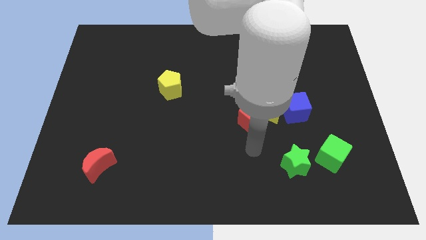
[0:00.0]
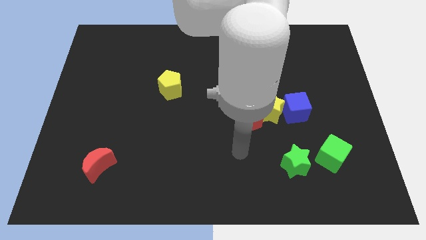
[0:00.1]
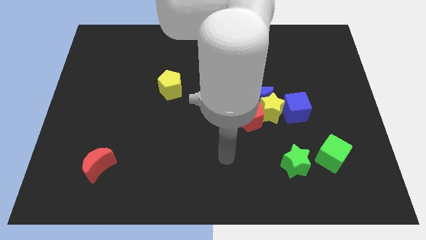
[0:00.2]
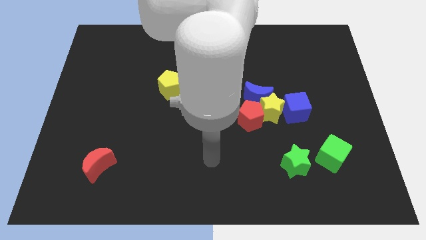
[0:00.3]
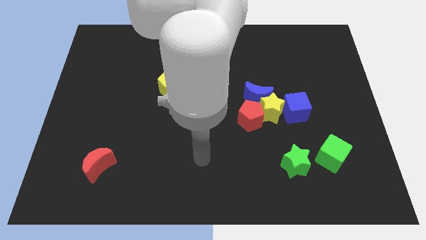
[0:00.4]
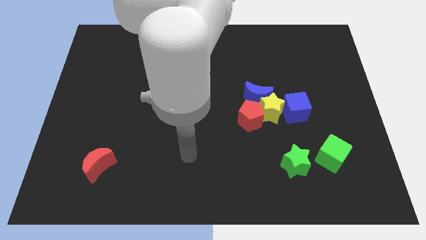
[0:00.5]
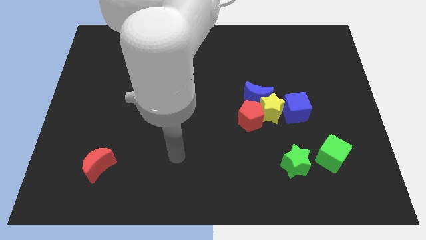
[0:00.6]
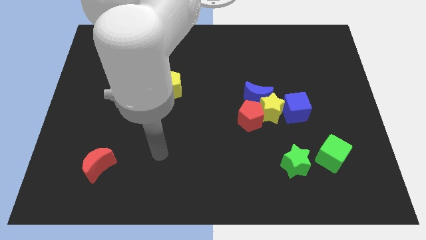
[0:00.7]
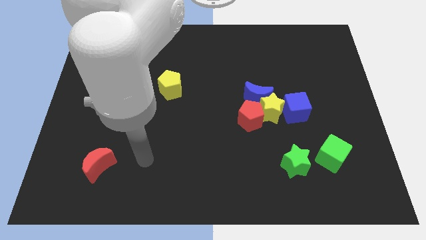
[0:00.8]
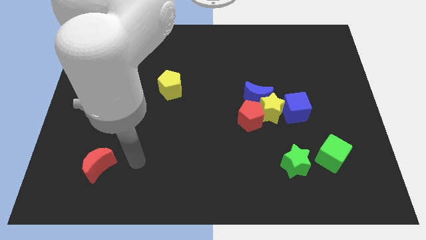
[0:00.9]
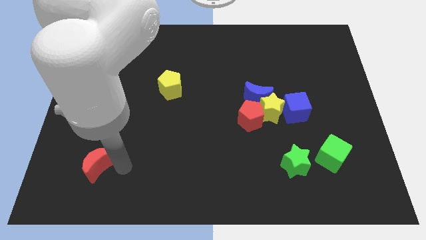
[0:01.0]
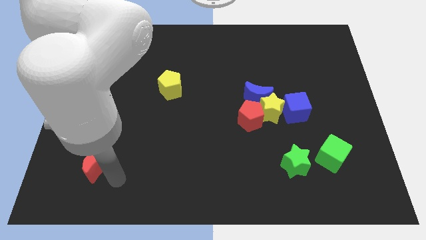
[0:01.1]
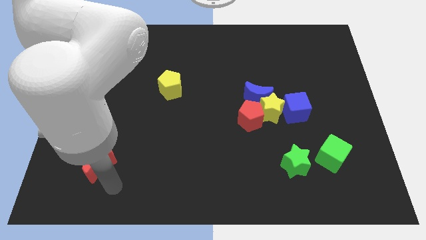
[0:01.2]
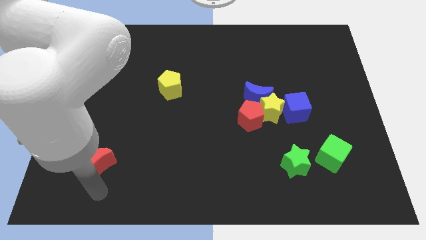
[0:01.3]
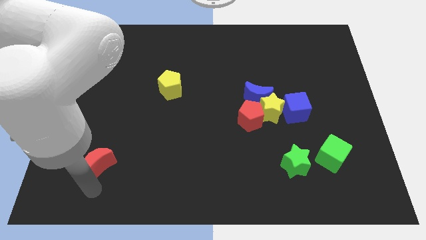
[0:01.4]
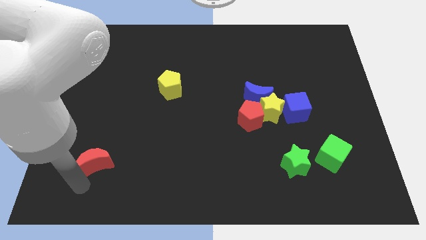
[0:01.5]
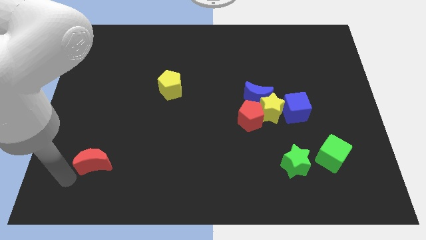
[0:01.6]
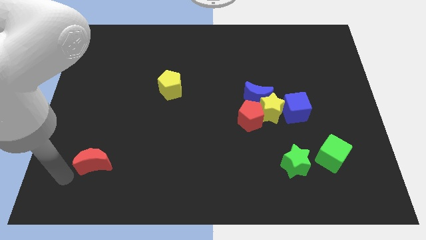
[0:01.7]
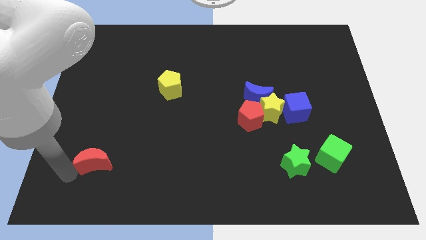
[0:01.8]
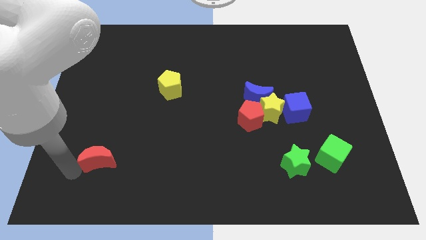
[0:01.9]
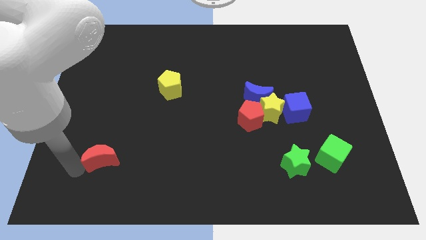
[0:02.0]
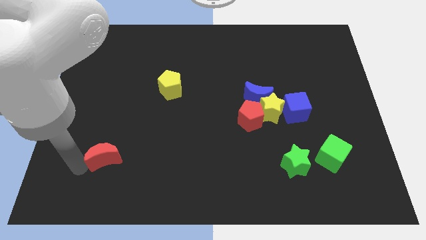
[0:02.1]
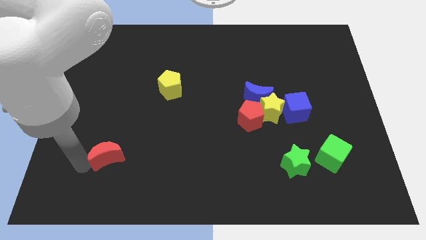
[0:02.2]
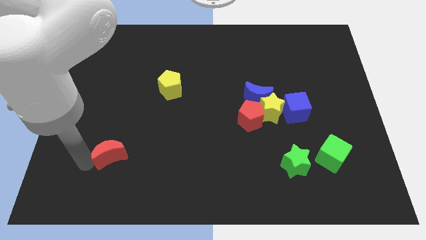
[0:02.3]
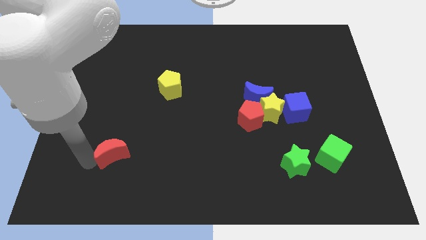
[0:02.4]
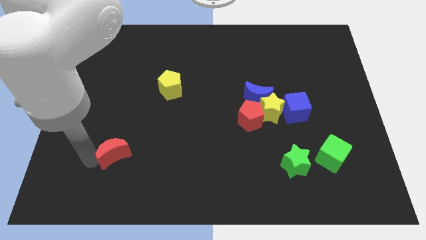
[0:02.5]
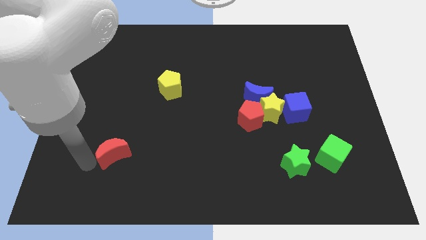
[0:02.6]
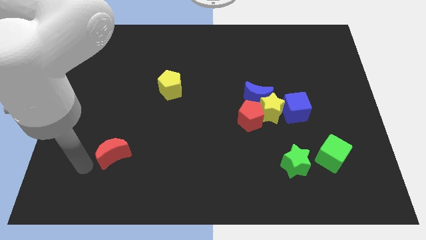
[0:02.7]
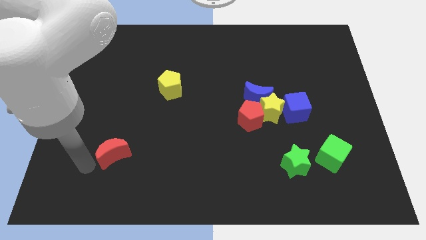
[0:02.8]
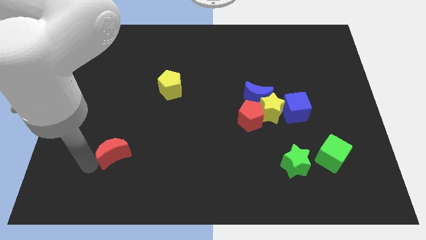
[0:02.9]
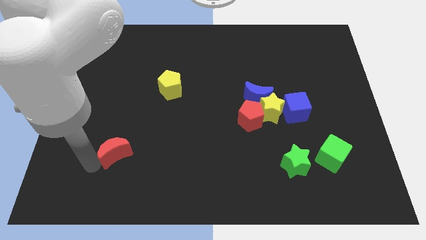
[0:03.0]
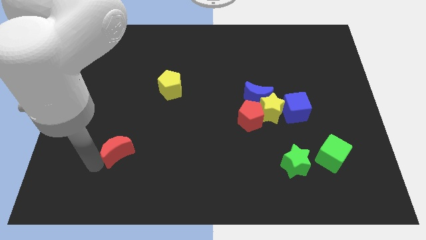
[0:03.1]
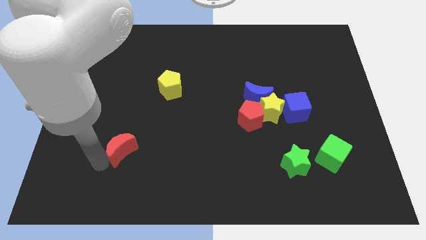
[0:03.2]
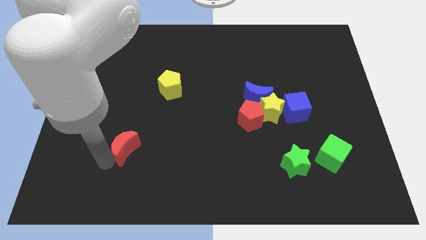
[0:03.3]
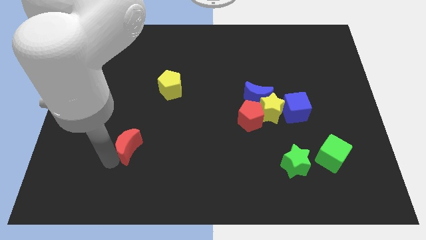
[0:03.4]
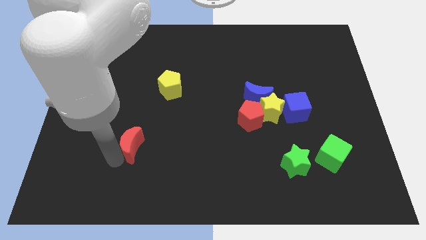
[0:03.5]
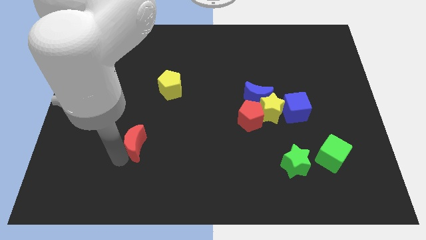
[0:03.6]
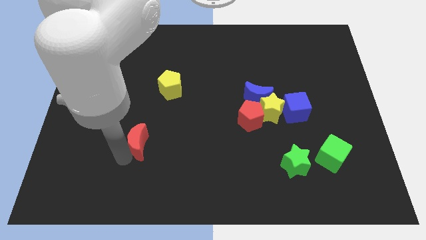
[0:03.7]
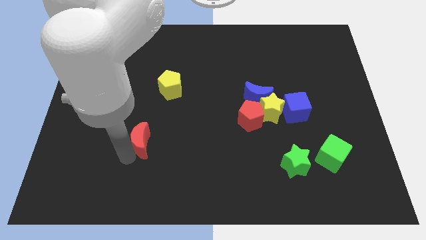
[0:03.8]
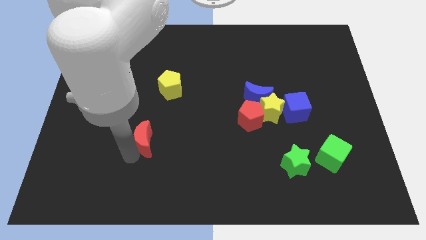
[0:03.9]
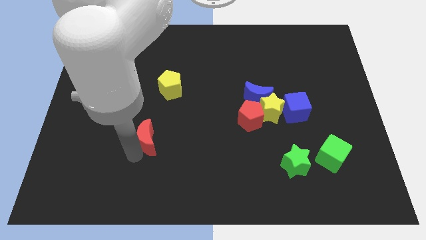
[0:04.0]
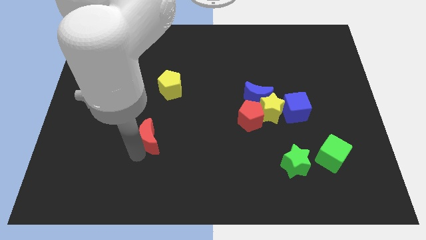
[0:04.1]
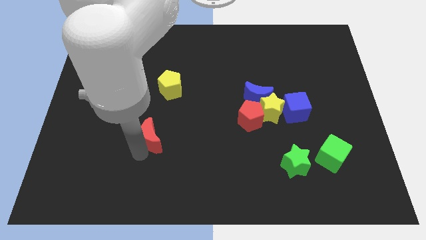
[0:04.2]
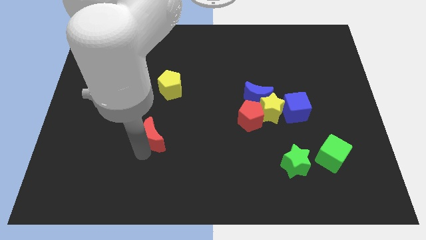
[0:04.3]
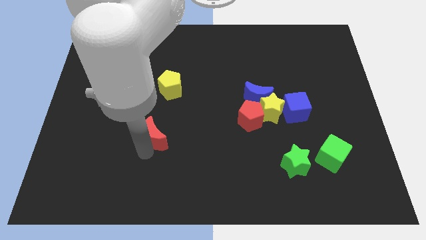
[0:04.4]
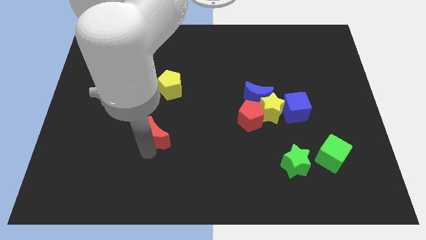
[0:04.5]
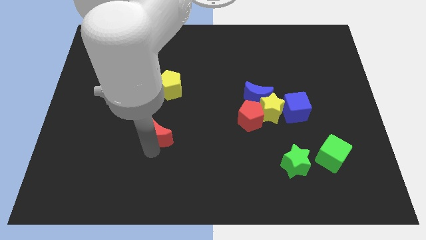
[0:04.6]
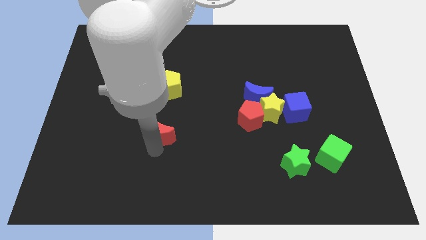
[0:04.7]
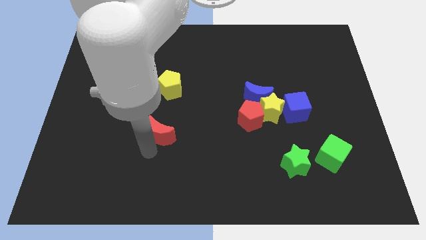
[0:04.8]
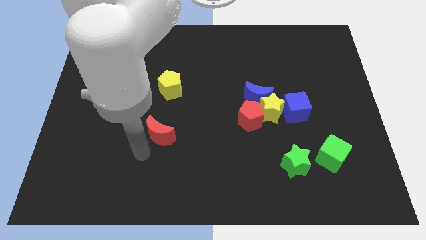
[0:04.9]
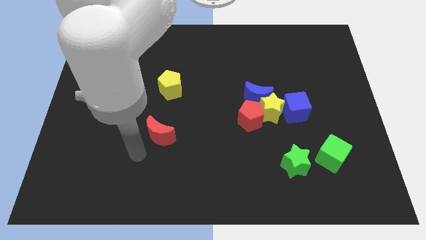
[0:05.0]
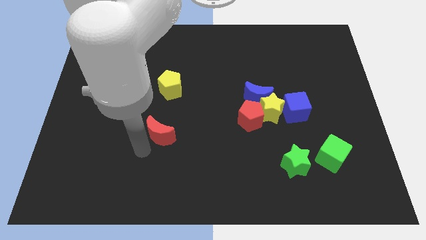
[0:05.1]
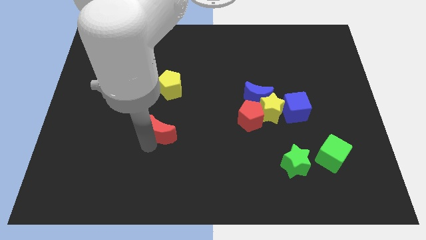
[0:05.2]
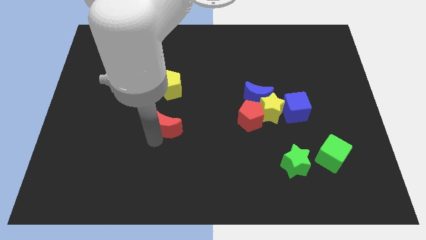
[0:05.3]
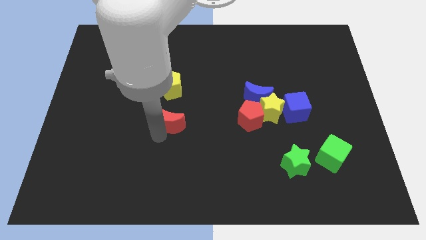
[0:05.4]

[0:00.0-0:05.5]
slide the red moon to the middle of the board

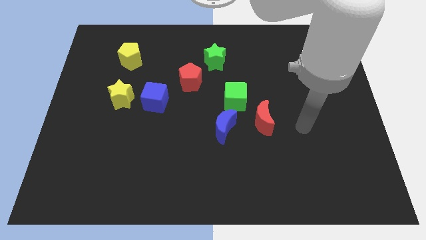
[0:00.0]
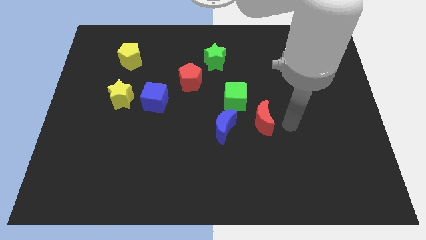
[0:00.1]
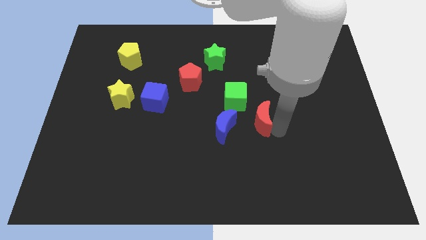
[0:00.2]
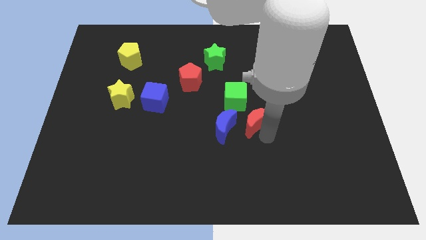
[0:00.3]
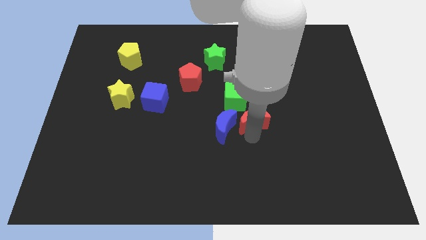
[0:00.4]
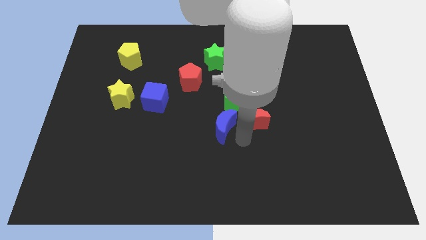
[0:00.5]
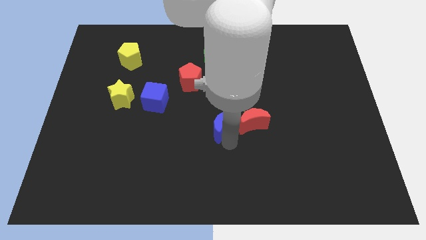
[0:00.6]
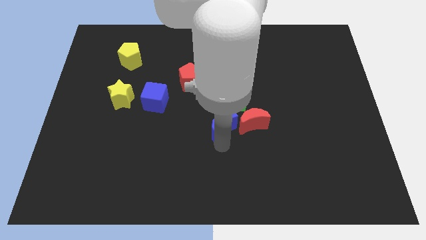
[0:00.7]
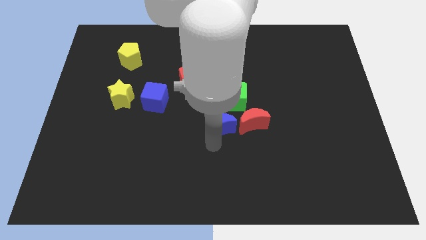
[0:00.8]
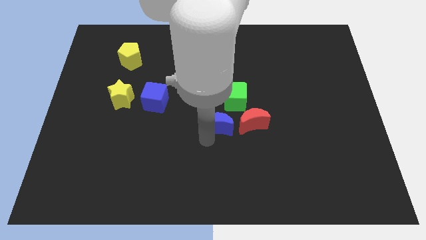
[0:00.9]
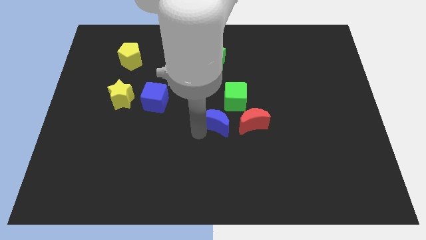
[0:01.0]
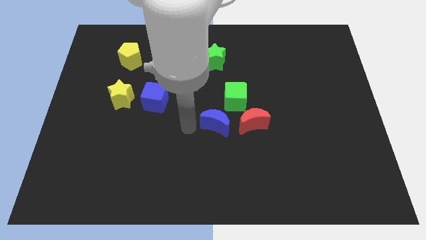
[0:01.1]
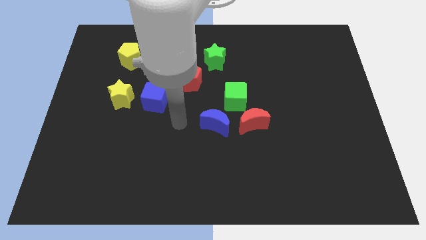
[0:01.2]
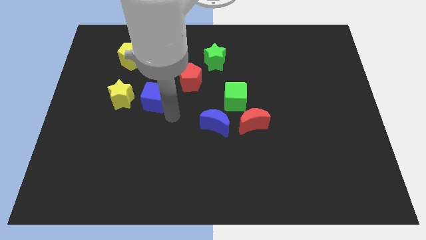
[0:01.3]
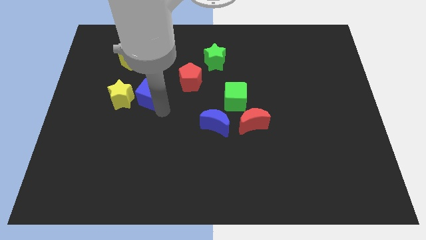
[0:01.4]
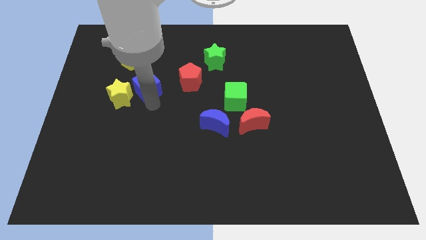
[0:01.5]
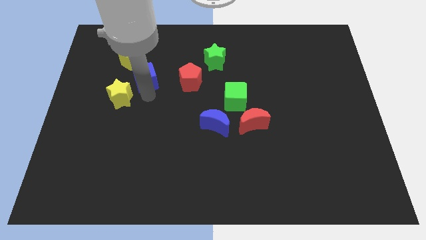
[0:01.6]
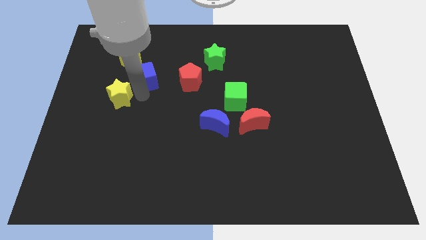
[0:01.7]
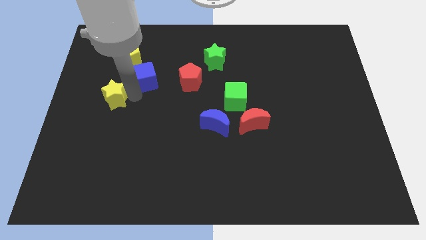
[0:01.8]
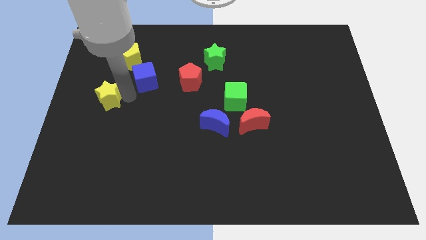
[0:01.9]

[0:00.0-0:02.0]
push the yellow star to the left side of the board
